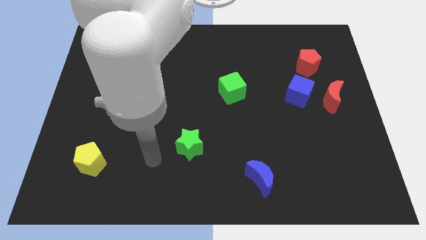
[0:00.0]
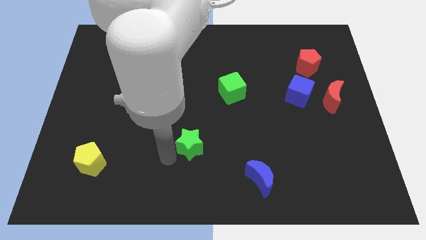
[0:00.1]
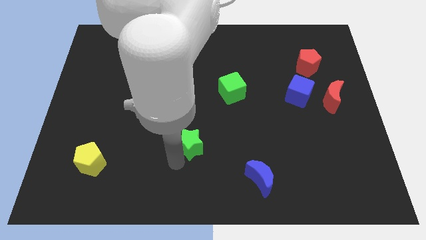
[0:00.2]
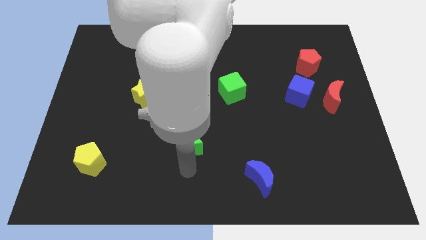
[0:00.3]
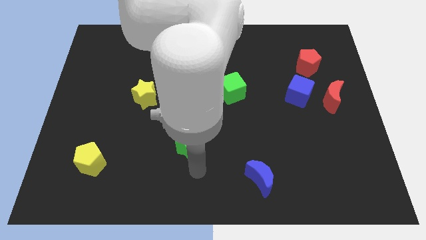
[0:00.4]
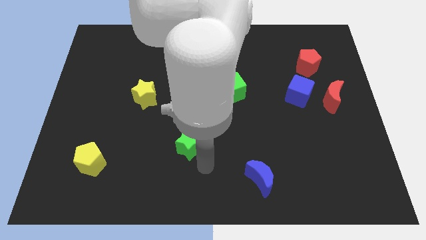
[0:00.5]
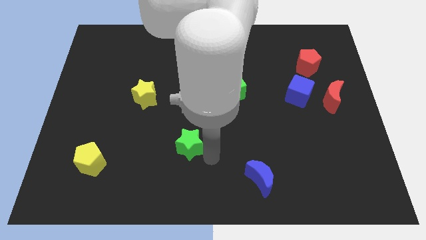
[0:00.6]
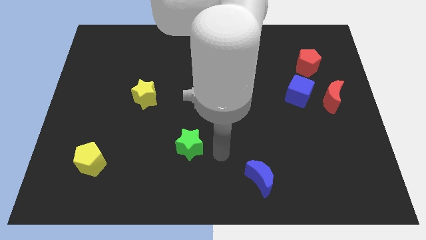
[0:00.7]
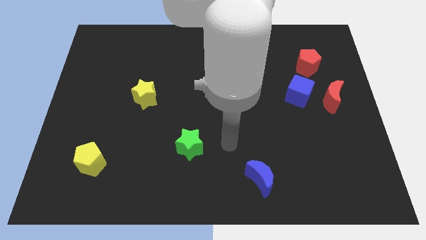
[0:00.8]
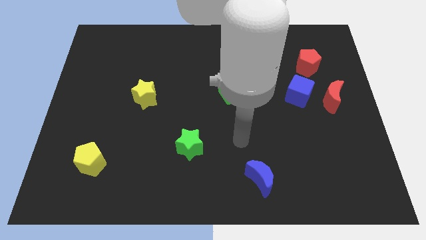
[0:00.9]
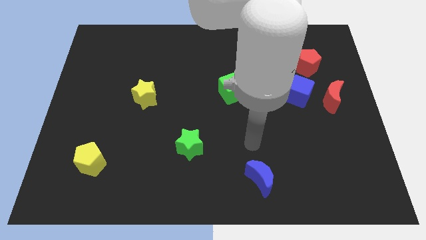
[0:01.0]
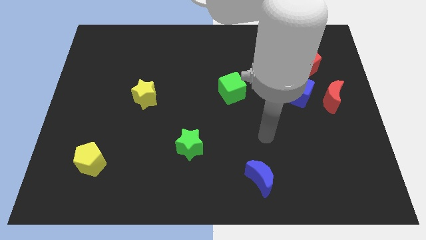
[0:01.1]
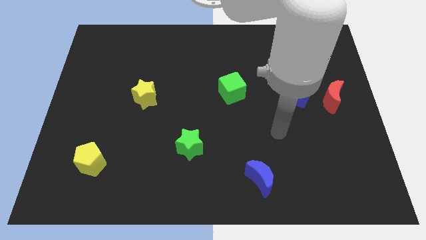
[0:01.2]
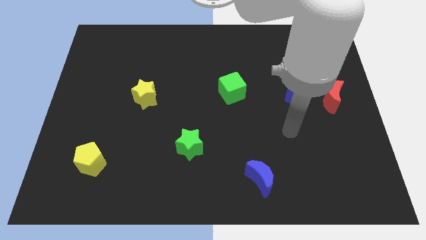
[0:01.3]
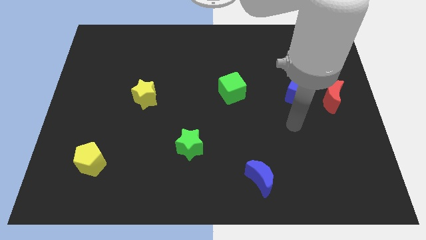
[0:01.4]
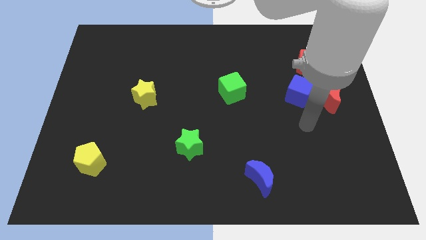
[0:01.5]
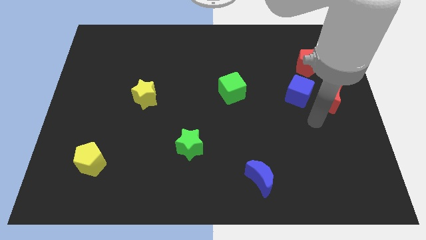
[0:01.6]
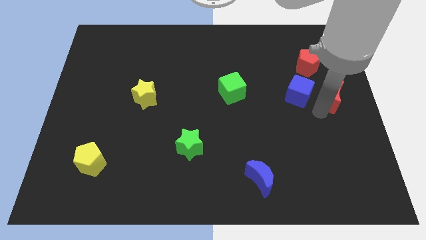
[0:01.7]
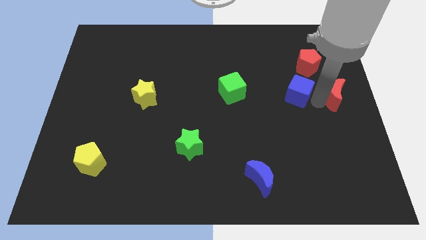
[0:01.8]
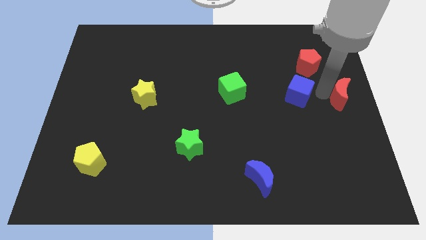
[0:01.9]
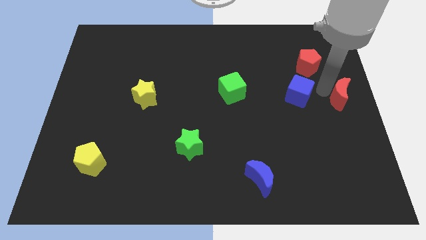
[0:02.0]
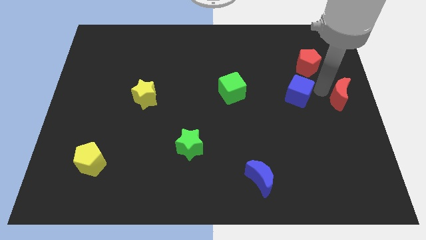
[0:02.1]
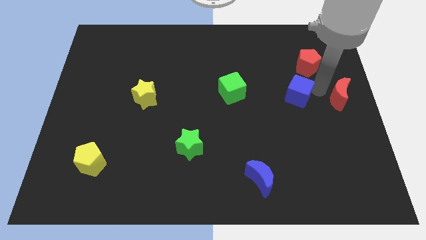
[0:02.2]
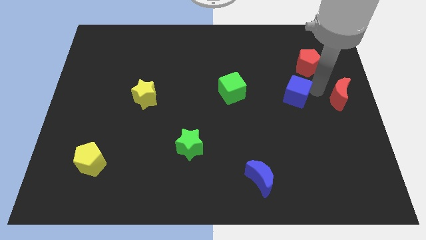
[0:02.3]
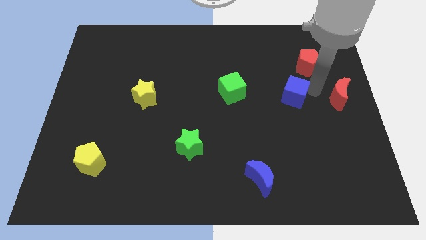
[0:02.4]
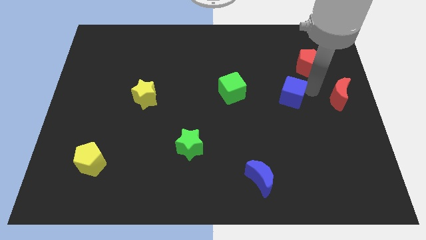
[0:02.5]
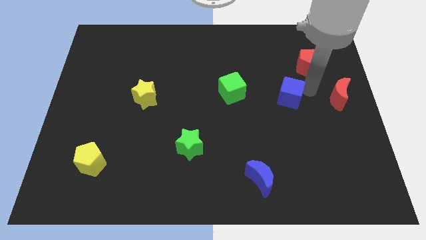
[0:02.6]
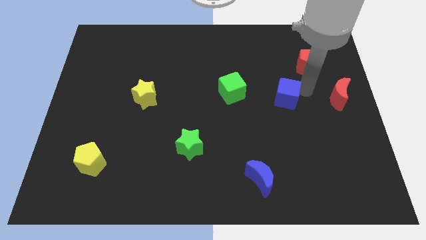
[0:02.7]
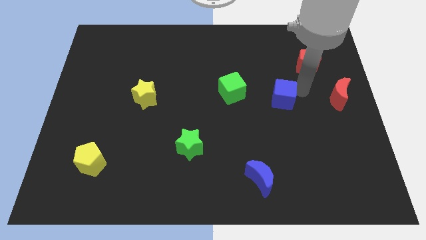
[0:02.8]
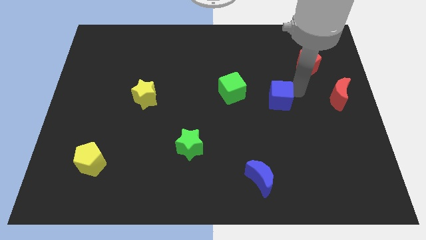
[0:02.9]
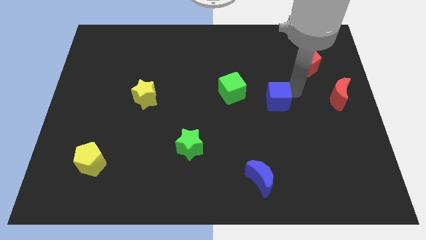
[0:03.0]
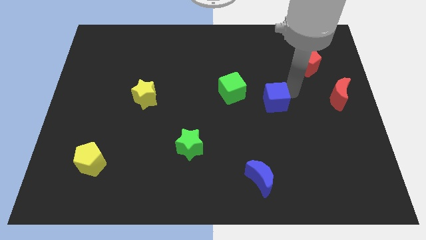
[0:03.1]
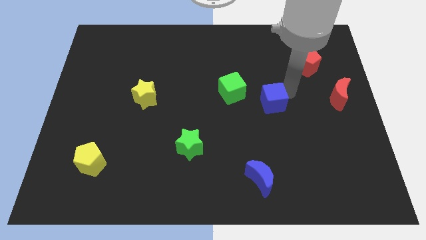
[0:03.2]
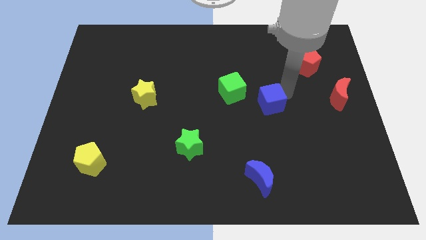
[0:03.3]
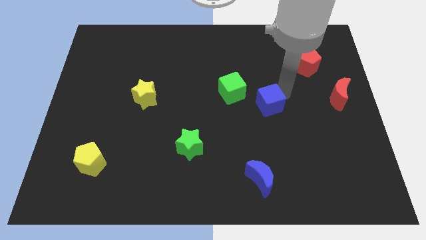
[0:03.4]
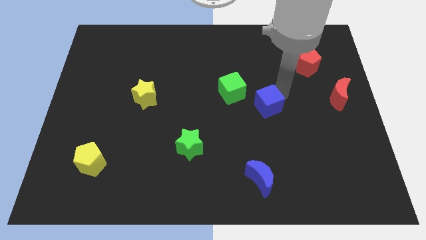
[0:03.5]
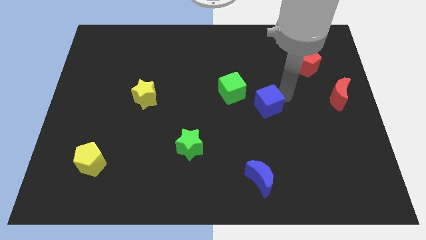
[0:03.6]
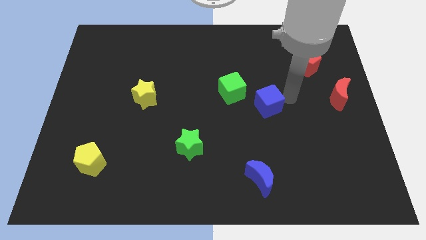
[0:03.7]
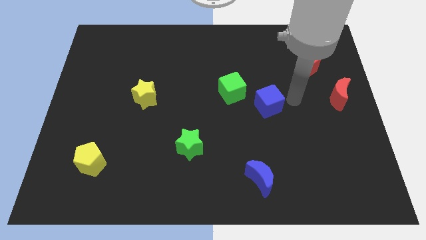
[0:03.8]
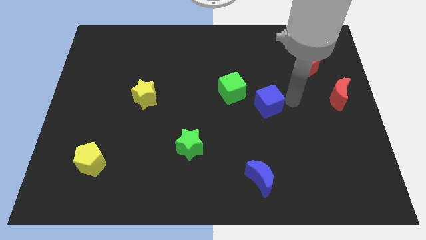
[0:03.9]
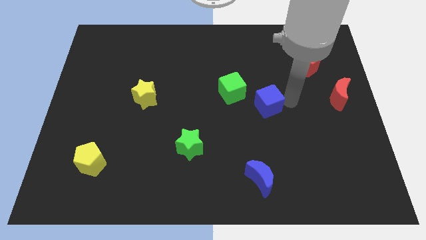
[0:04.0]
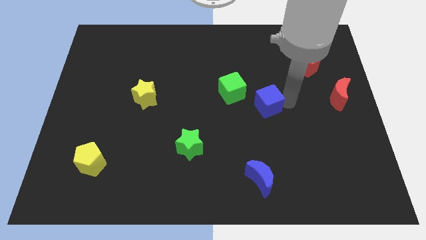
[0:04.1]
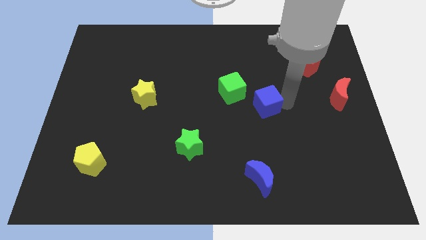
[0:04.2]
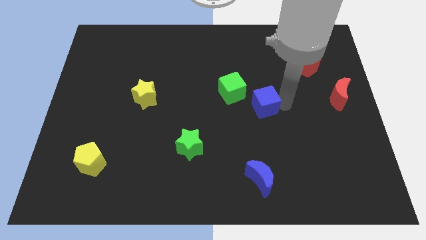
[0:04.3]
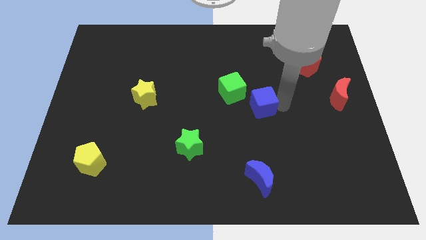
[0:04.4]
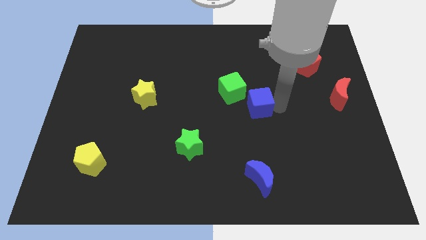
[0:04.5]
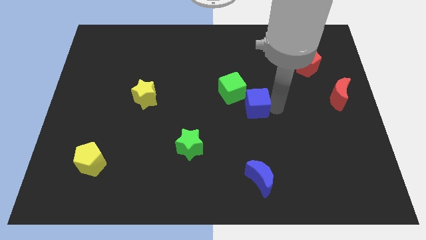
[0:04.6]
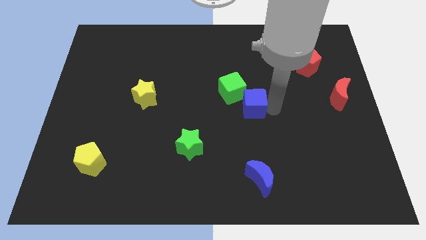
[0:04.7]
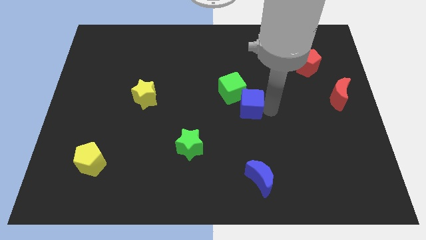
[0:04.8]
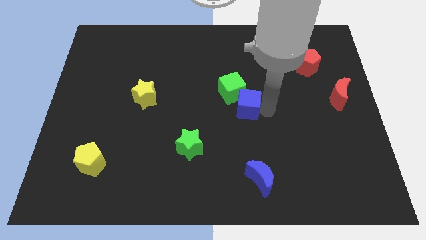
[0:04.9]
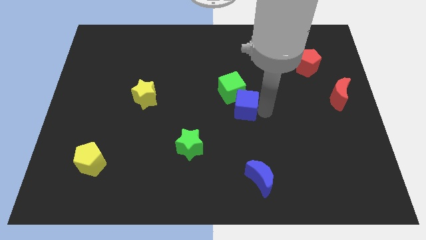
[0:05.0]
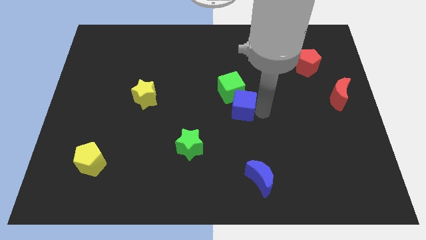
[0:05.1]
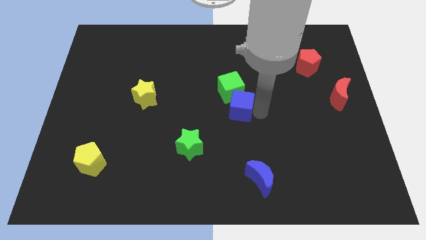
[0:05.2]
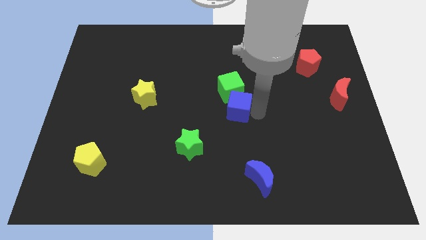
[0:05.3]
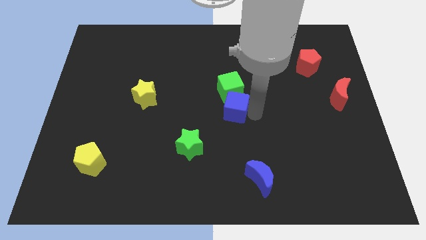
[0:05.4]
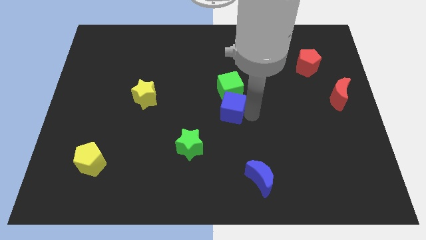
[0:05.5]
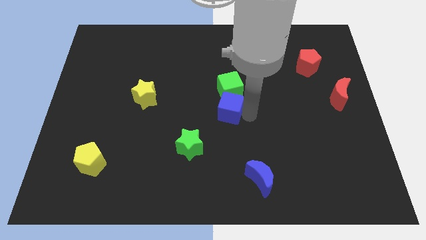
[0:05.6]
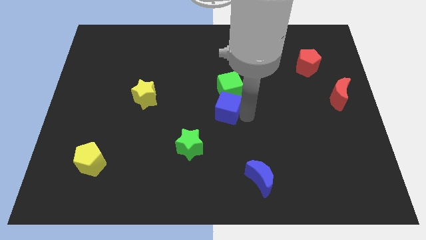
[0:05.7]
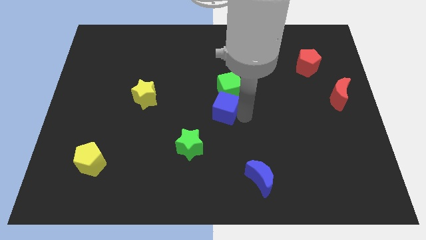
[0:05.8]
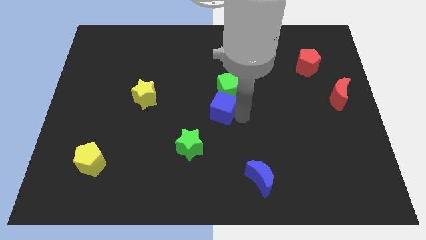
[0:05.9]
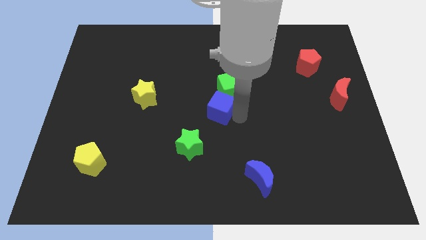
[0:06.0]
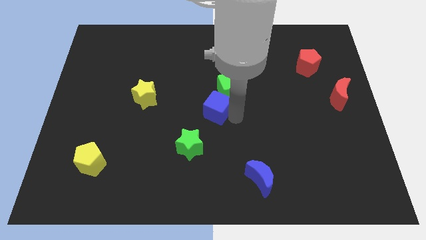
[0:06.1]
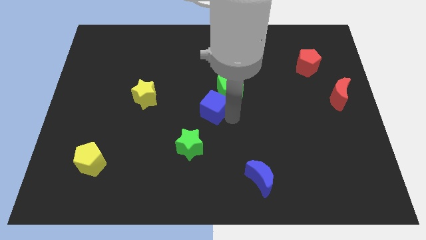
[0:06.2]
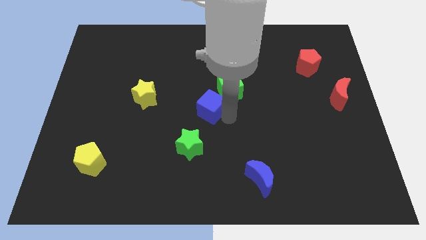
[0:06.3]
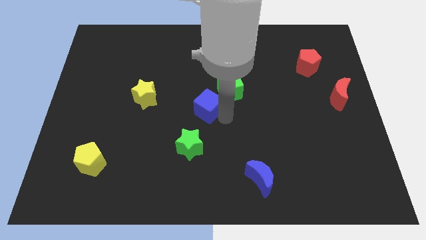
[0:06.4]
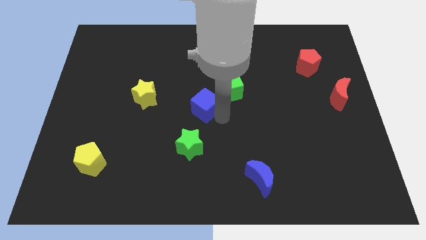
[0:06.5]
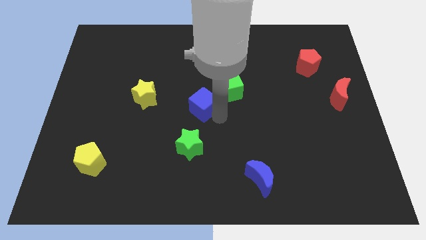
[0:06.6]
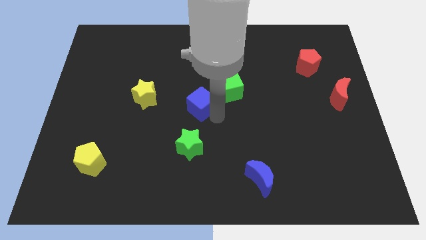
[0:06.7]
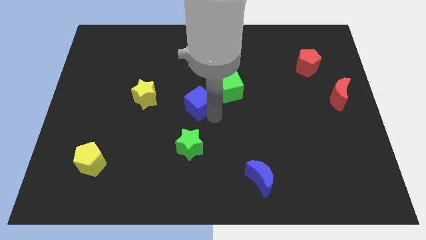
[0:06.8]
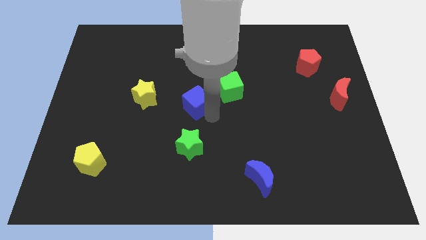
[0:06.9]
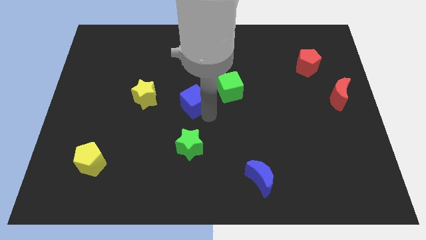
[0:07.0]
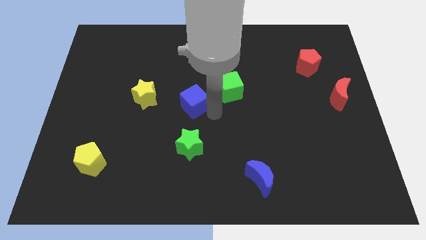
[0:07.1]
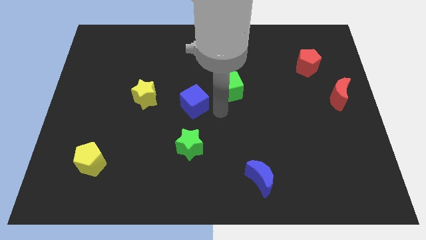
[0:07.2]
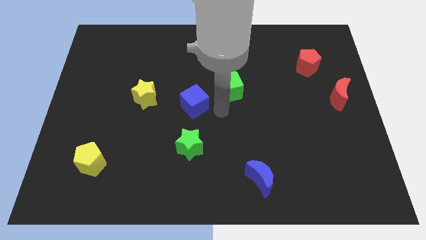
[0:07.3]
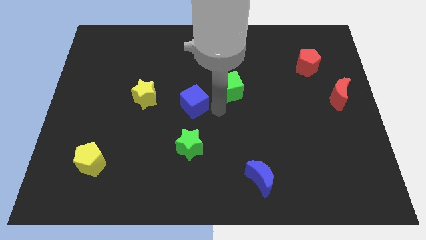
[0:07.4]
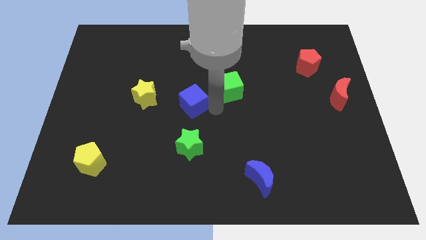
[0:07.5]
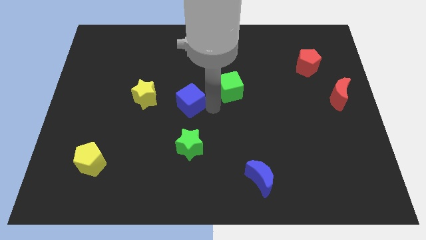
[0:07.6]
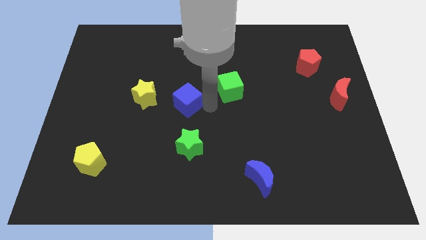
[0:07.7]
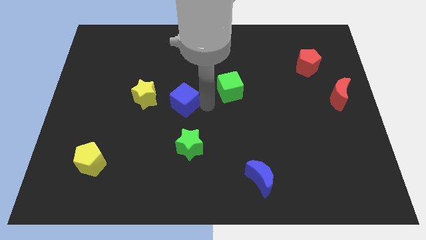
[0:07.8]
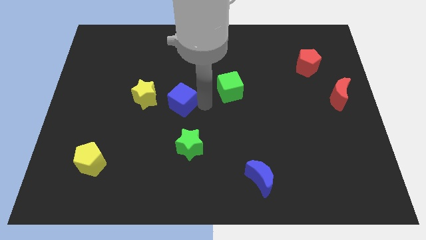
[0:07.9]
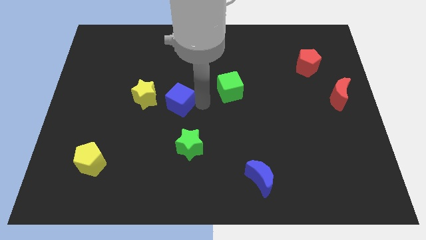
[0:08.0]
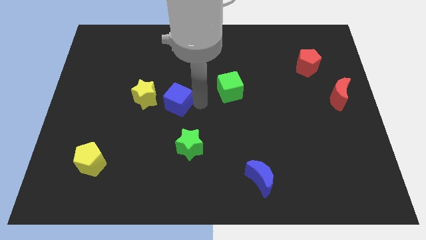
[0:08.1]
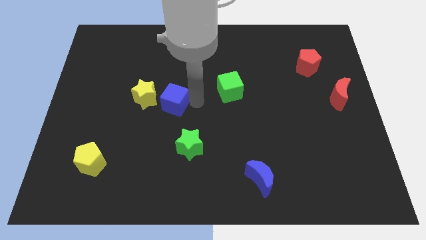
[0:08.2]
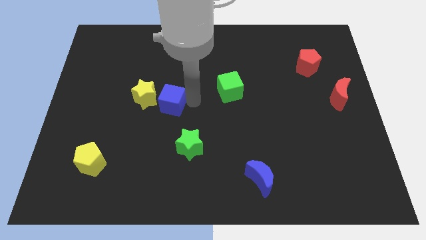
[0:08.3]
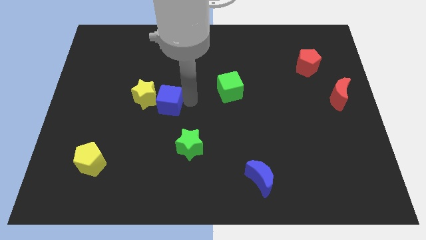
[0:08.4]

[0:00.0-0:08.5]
put the blue cube towards the yellow star
